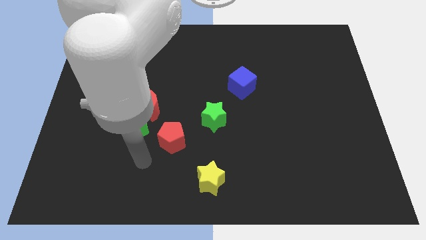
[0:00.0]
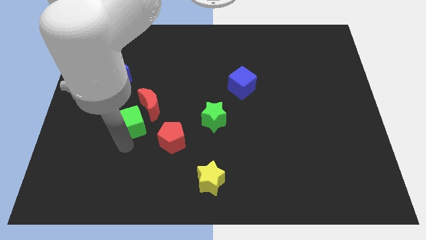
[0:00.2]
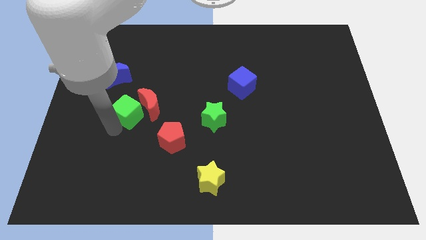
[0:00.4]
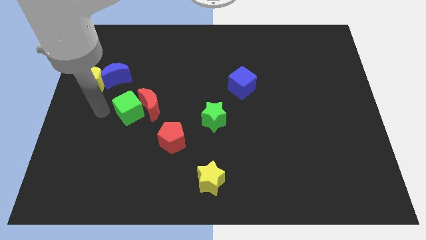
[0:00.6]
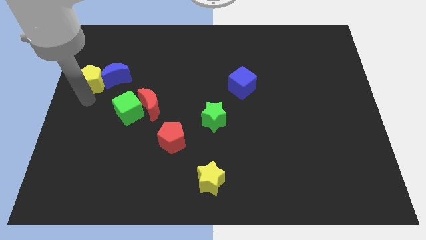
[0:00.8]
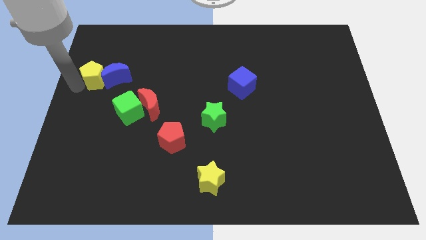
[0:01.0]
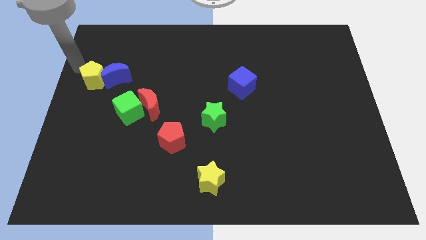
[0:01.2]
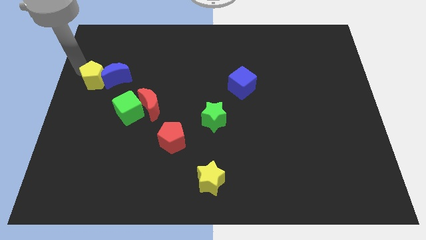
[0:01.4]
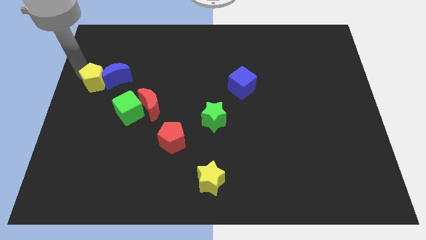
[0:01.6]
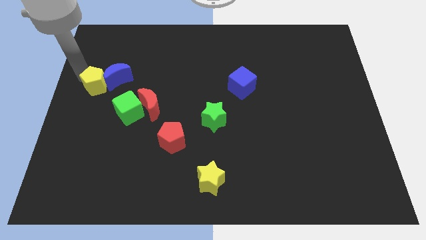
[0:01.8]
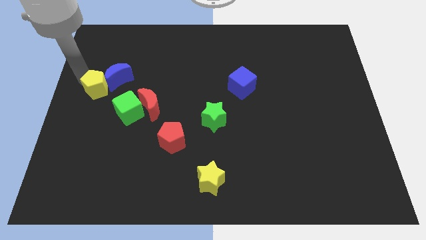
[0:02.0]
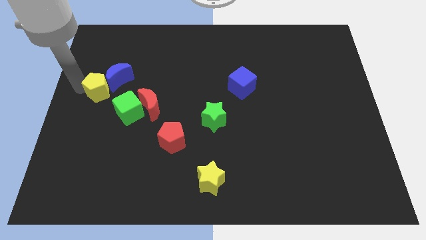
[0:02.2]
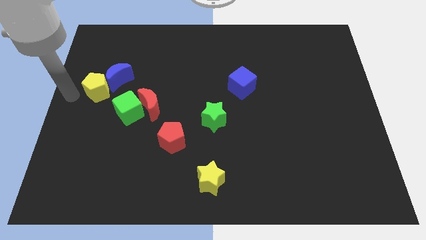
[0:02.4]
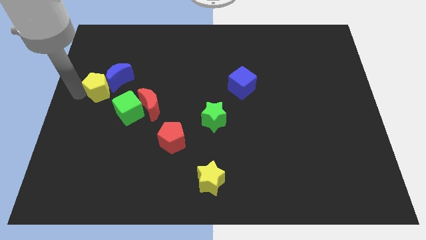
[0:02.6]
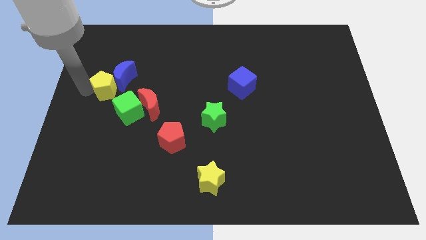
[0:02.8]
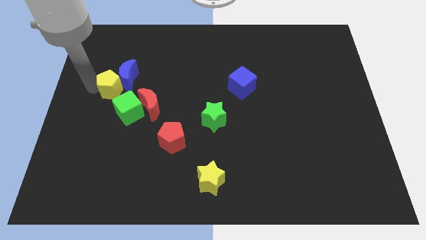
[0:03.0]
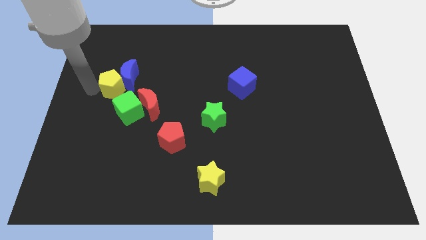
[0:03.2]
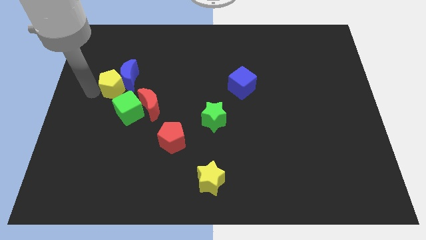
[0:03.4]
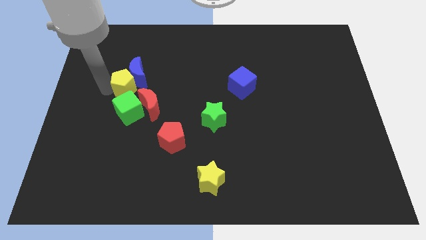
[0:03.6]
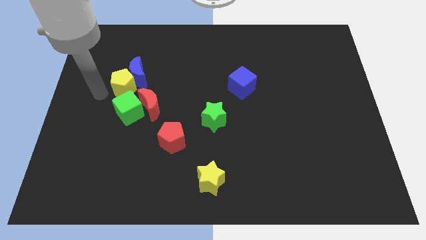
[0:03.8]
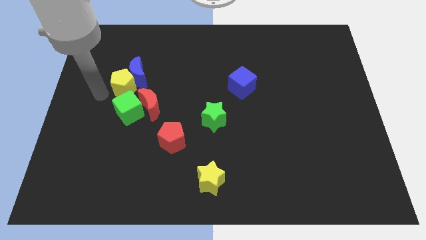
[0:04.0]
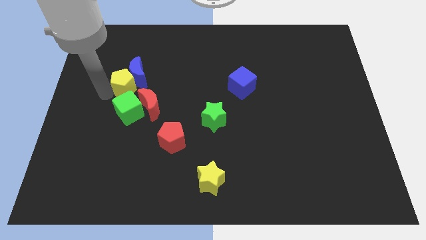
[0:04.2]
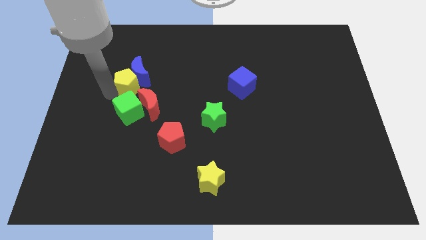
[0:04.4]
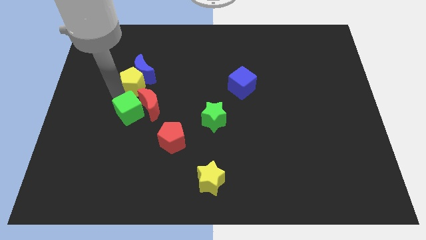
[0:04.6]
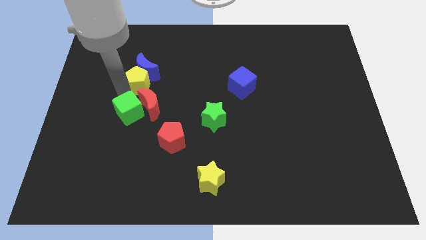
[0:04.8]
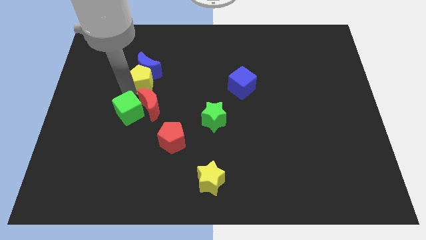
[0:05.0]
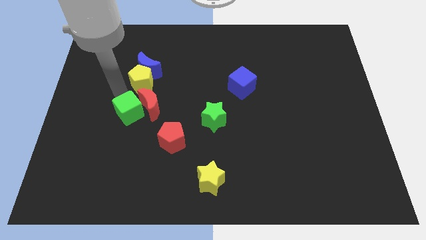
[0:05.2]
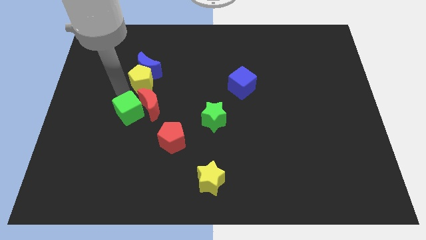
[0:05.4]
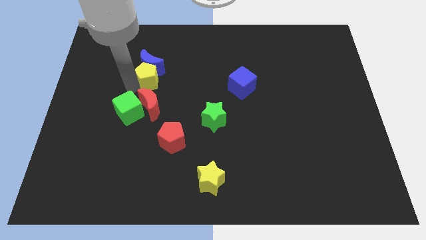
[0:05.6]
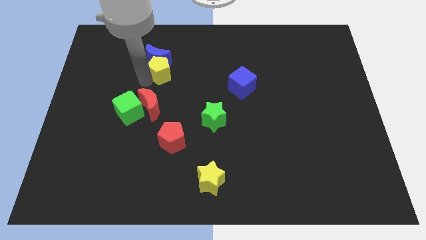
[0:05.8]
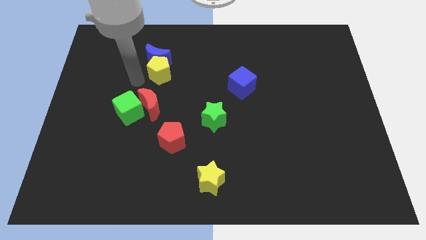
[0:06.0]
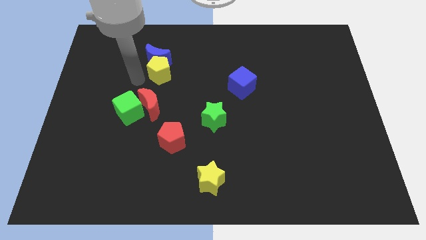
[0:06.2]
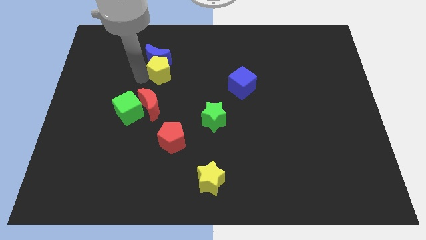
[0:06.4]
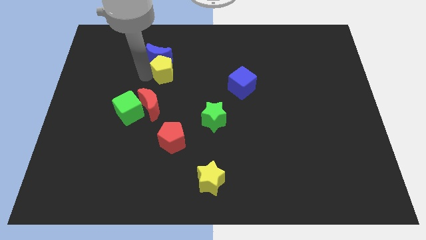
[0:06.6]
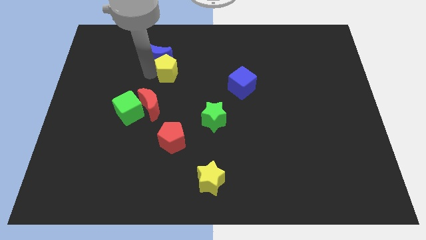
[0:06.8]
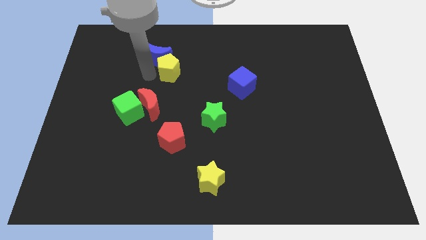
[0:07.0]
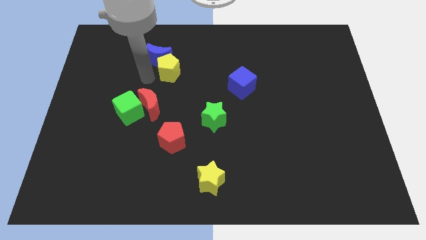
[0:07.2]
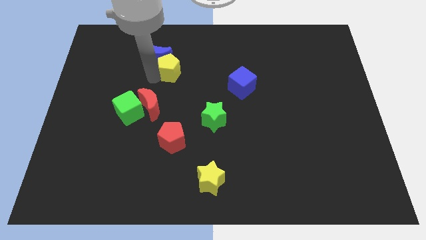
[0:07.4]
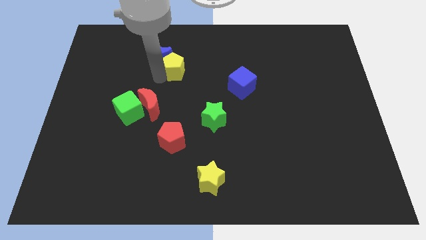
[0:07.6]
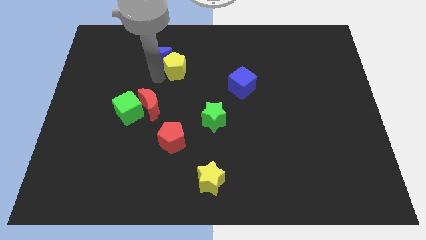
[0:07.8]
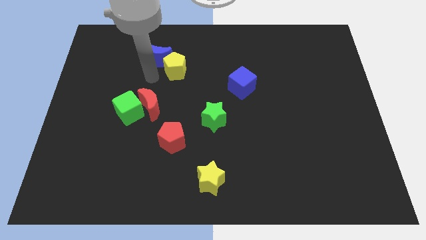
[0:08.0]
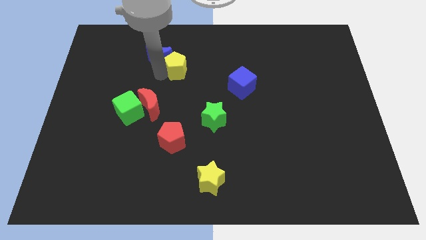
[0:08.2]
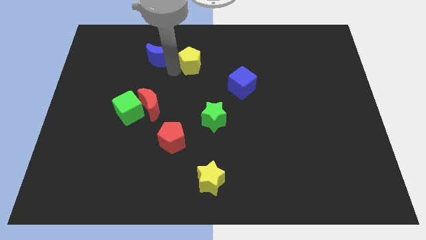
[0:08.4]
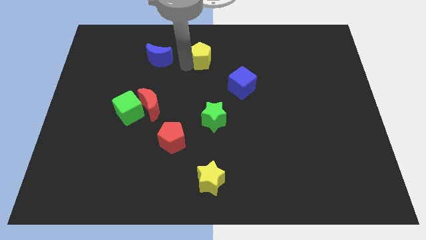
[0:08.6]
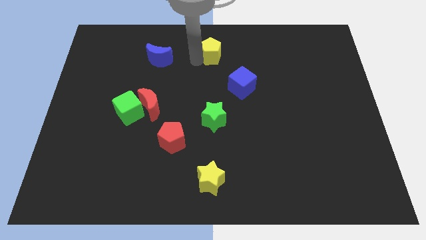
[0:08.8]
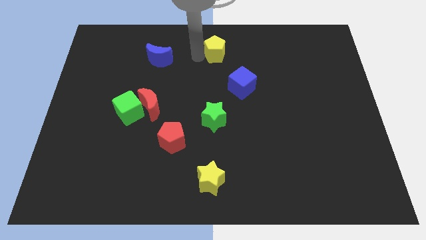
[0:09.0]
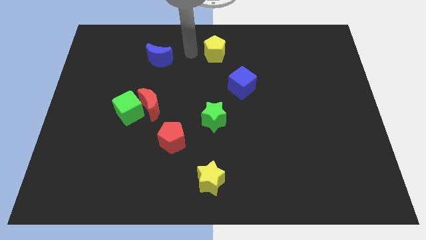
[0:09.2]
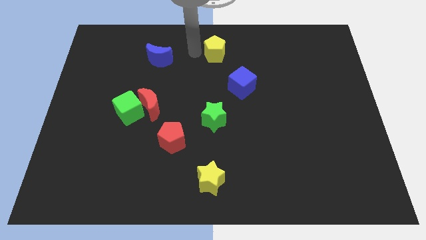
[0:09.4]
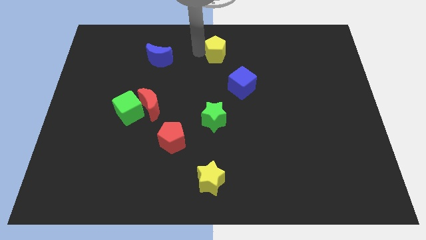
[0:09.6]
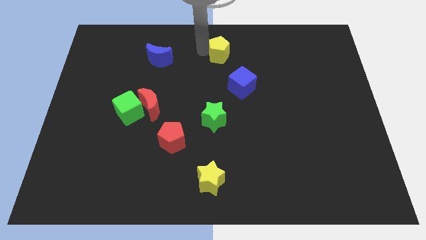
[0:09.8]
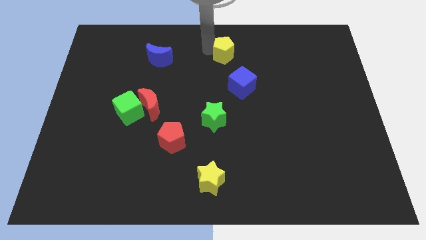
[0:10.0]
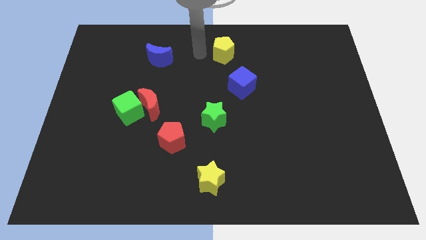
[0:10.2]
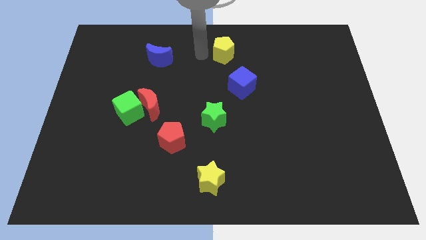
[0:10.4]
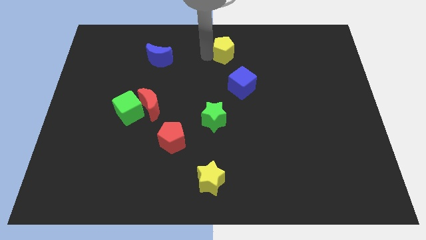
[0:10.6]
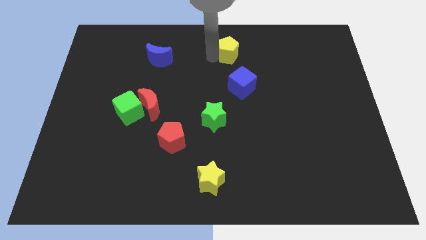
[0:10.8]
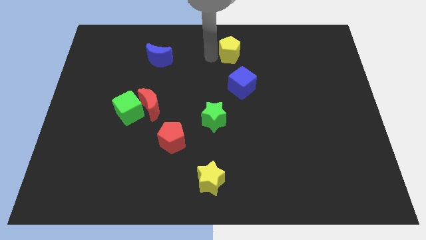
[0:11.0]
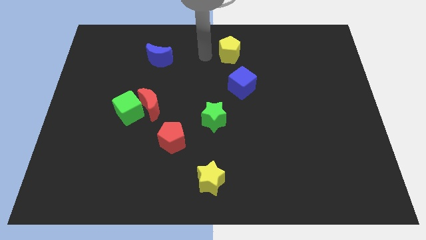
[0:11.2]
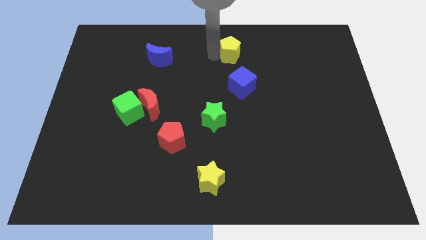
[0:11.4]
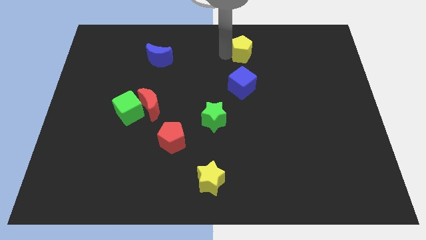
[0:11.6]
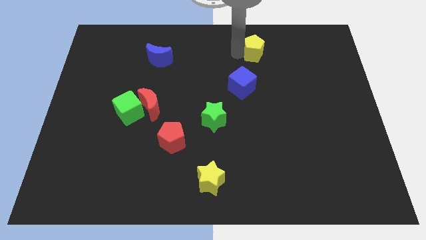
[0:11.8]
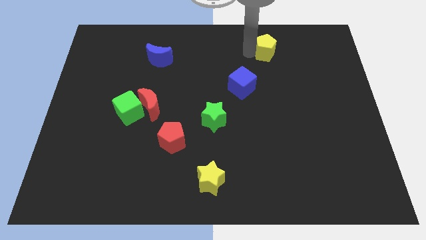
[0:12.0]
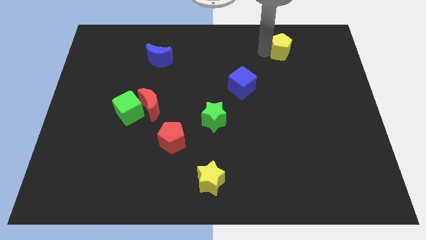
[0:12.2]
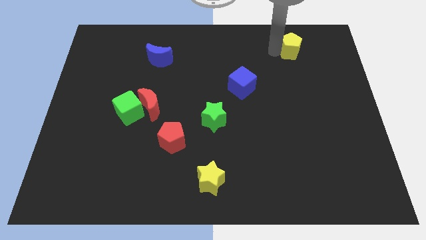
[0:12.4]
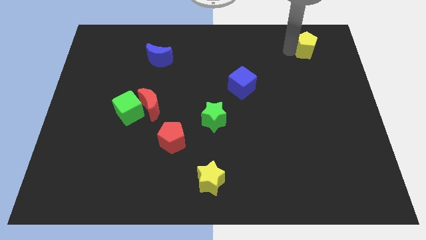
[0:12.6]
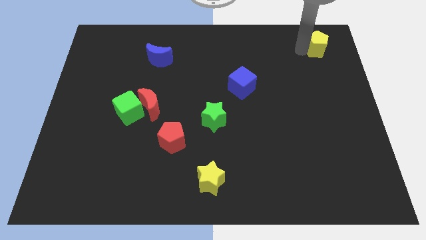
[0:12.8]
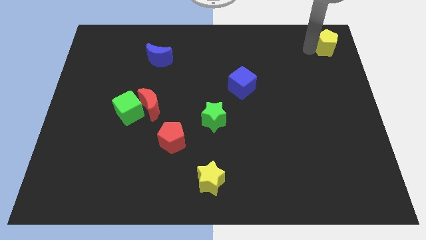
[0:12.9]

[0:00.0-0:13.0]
slide the yellow pentagon to the top right corner

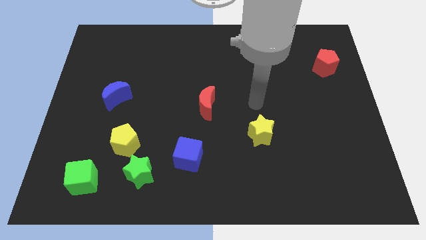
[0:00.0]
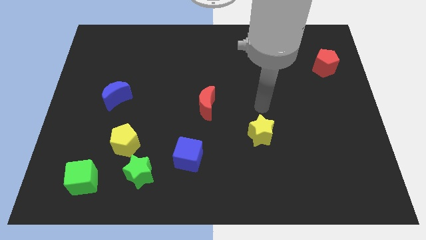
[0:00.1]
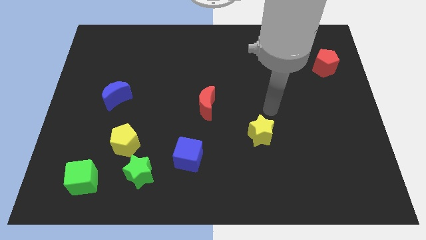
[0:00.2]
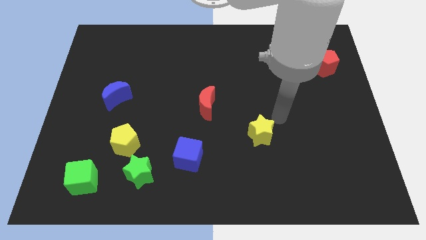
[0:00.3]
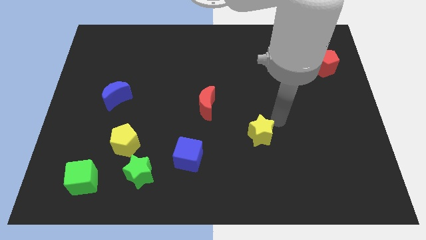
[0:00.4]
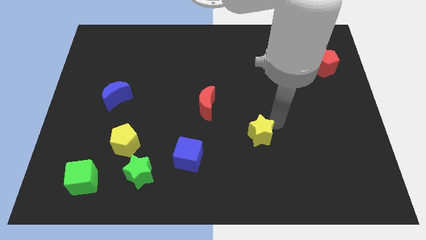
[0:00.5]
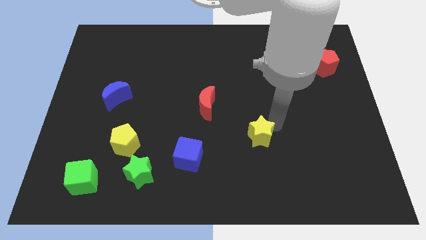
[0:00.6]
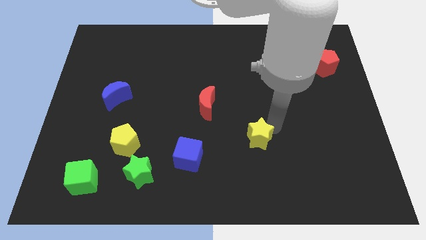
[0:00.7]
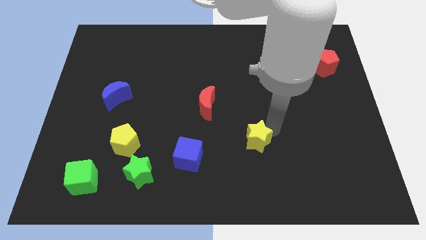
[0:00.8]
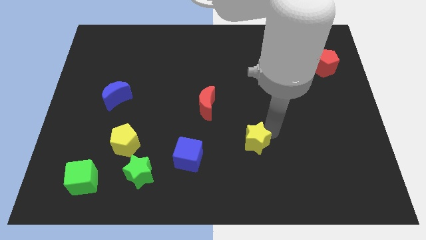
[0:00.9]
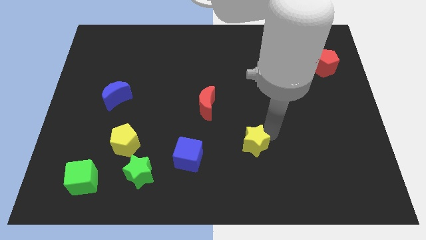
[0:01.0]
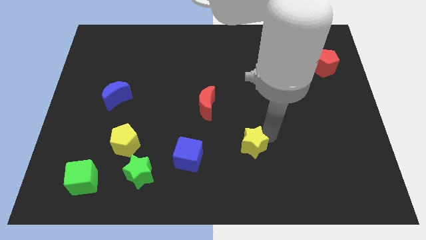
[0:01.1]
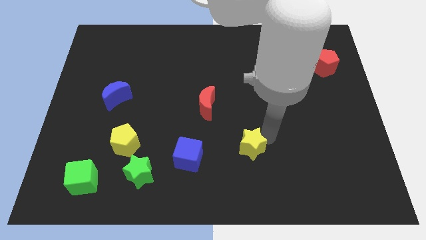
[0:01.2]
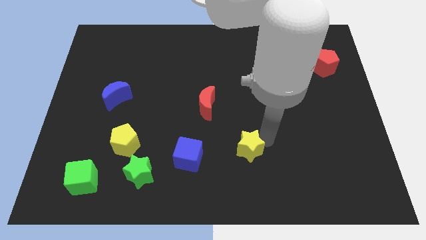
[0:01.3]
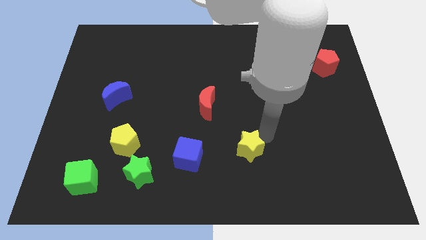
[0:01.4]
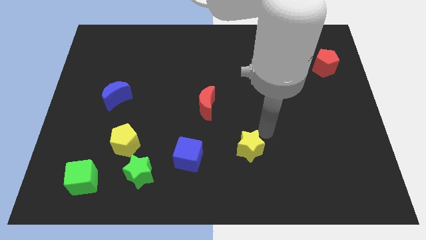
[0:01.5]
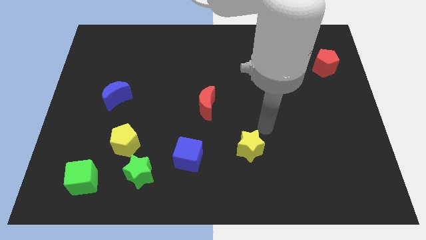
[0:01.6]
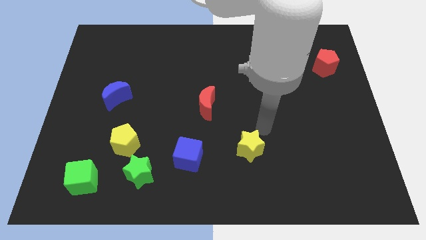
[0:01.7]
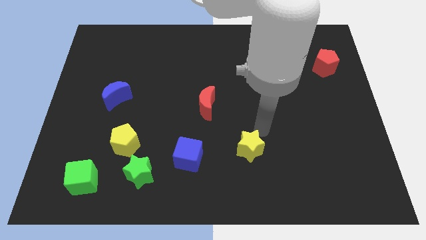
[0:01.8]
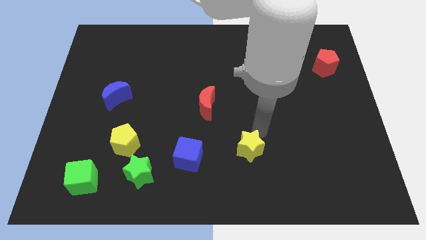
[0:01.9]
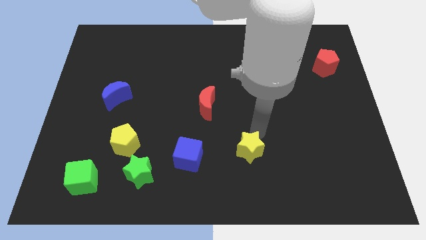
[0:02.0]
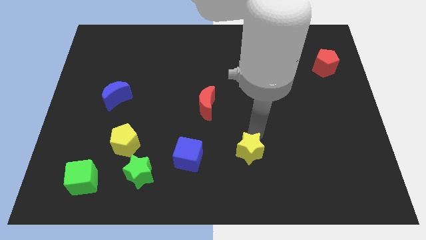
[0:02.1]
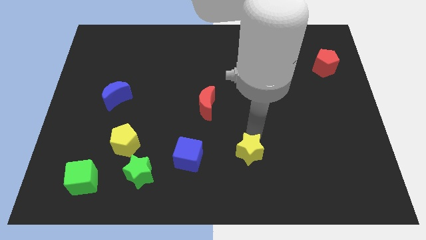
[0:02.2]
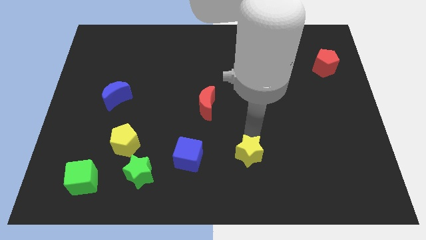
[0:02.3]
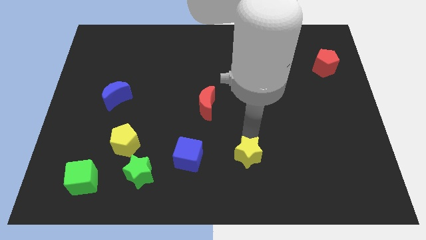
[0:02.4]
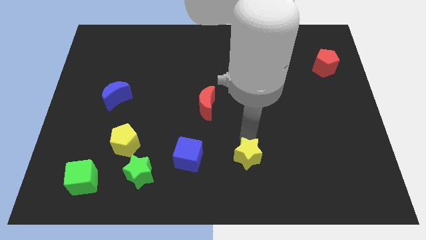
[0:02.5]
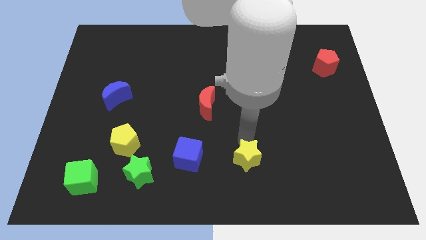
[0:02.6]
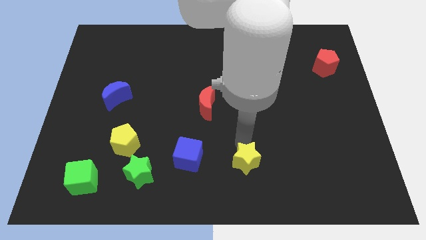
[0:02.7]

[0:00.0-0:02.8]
push the yellow star to the bottom side
